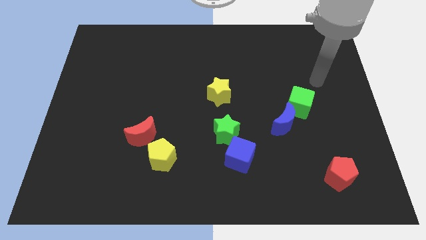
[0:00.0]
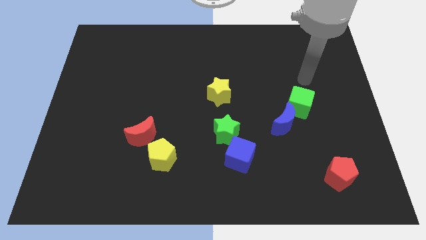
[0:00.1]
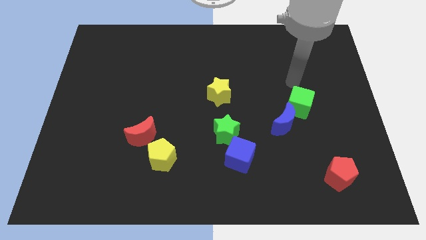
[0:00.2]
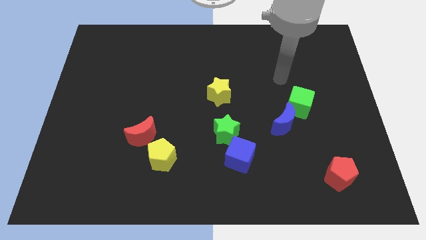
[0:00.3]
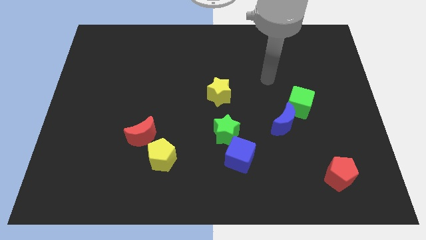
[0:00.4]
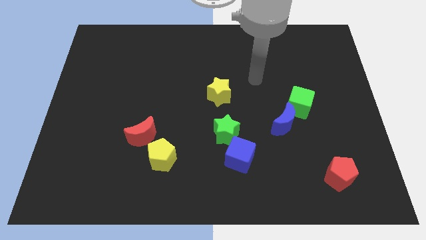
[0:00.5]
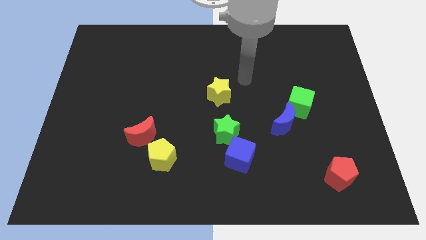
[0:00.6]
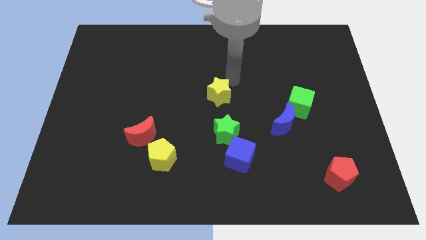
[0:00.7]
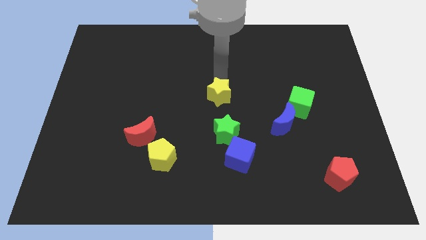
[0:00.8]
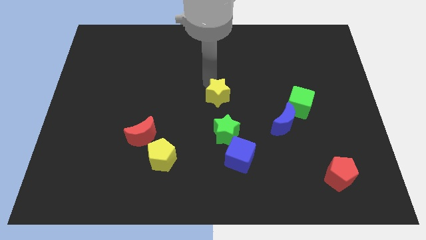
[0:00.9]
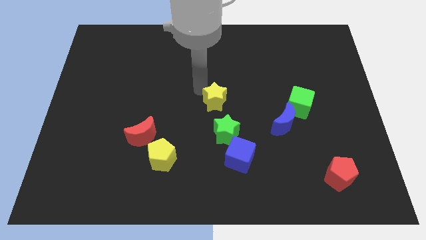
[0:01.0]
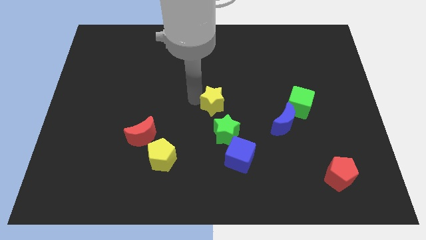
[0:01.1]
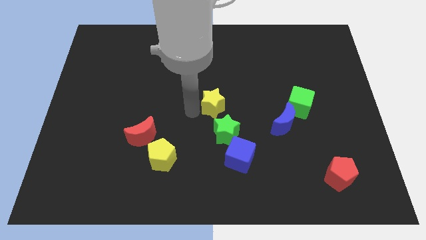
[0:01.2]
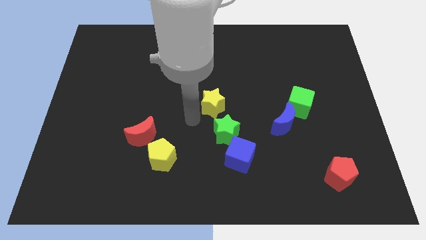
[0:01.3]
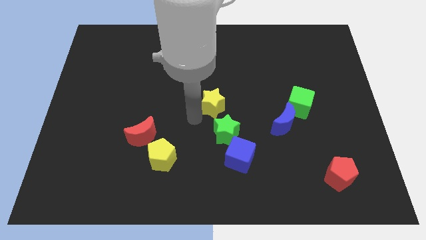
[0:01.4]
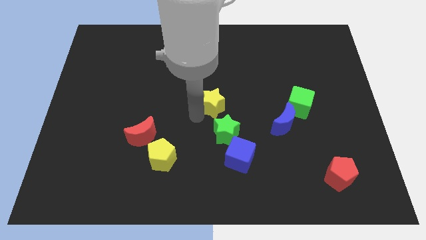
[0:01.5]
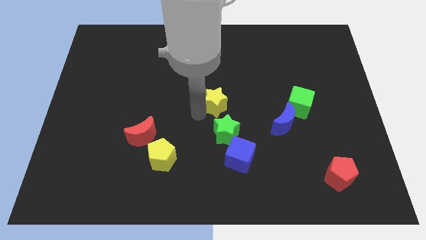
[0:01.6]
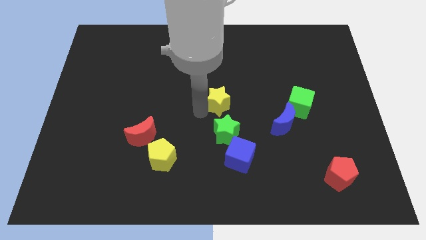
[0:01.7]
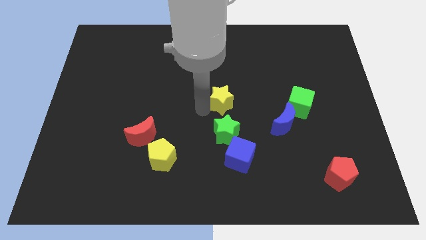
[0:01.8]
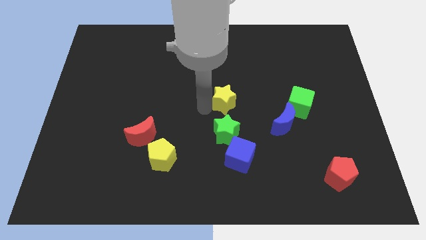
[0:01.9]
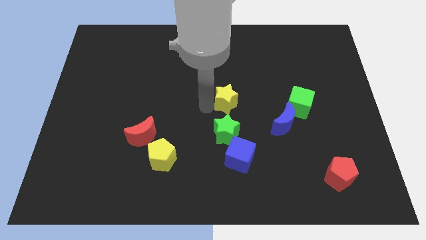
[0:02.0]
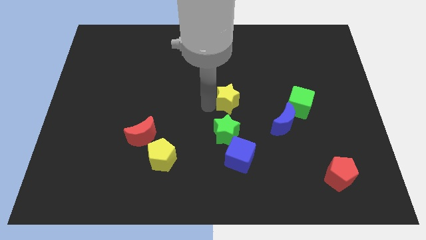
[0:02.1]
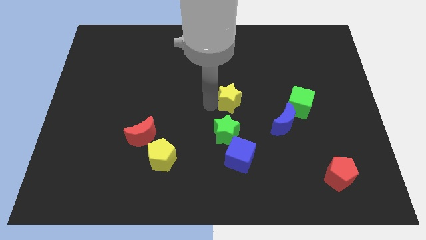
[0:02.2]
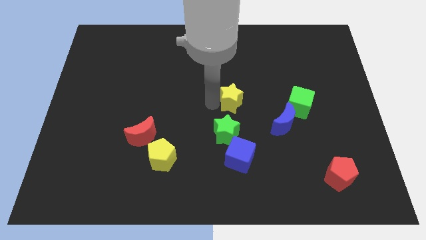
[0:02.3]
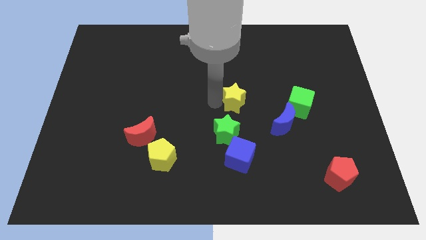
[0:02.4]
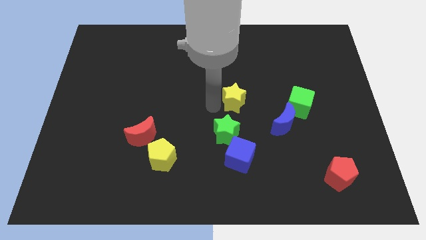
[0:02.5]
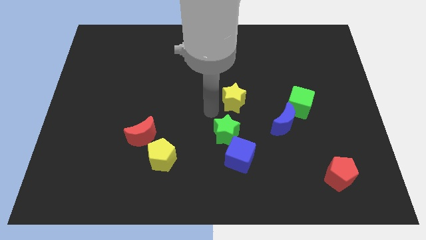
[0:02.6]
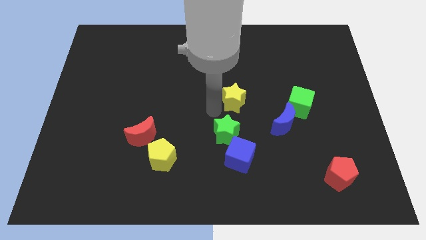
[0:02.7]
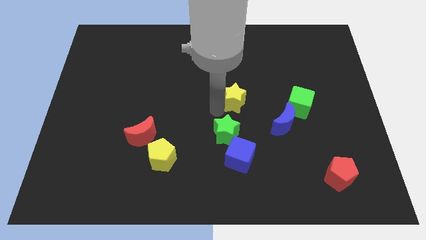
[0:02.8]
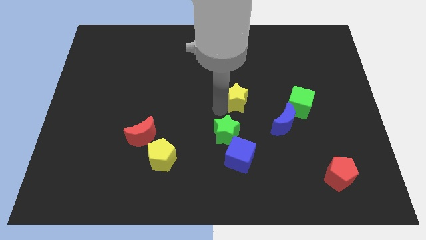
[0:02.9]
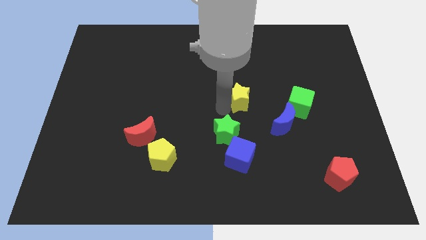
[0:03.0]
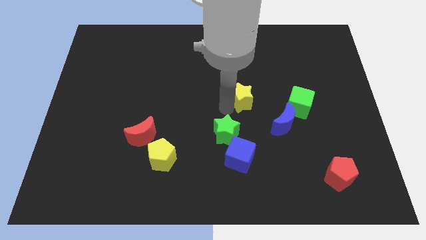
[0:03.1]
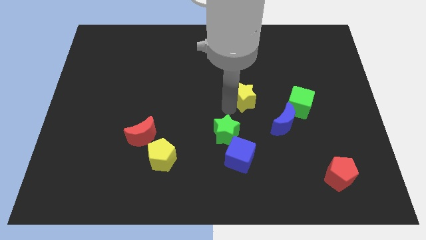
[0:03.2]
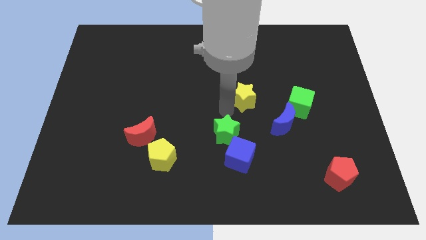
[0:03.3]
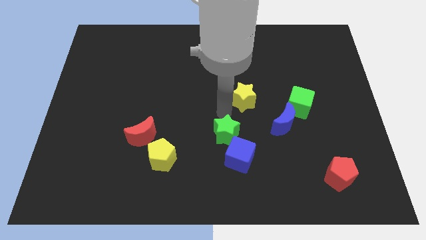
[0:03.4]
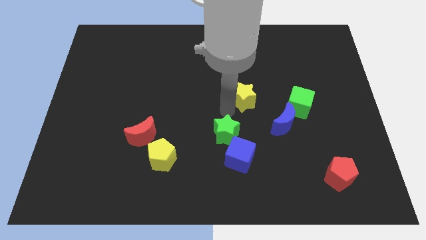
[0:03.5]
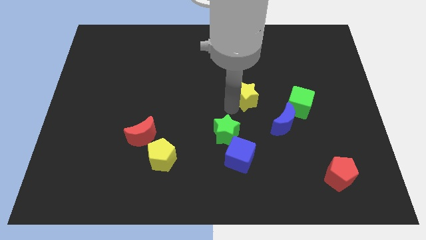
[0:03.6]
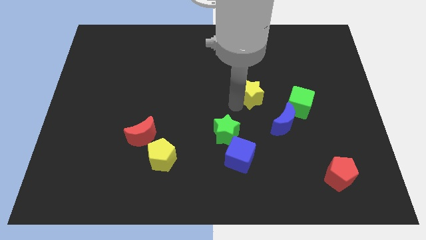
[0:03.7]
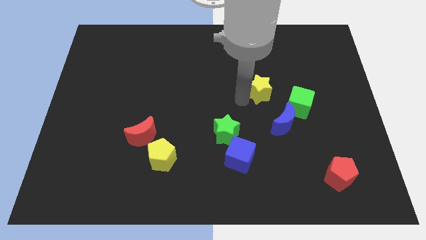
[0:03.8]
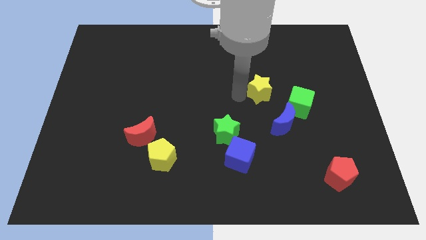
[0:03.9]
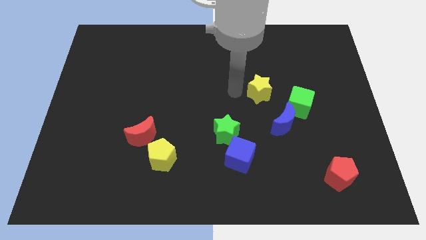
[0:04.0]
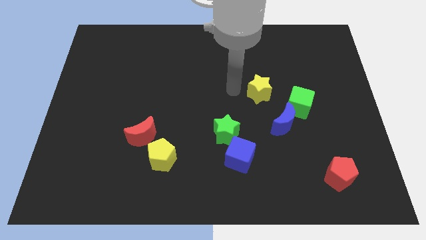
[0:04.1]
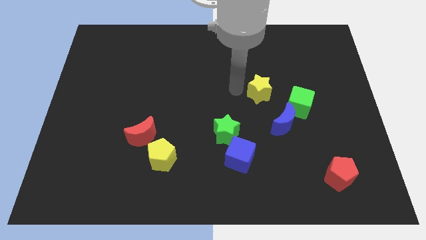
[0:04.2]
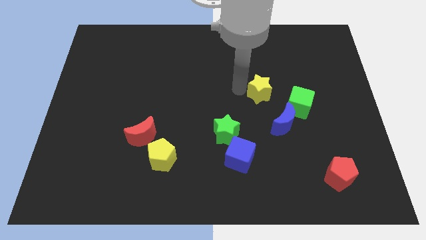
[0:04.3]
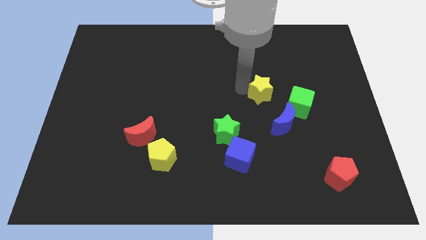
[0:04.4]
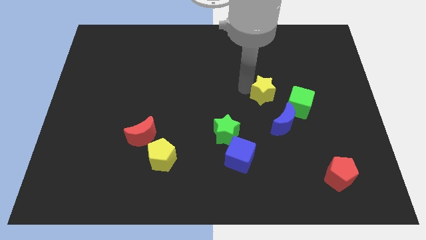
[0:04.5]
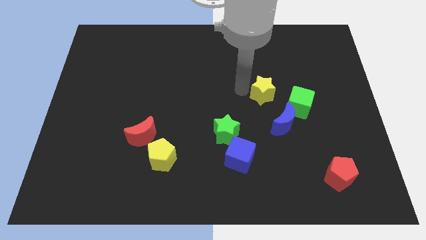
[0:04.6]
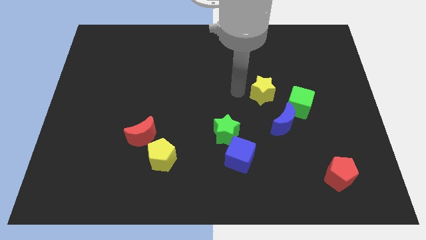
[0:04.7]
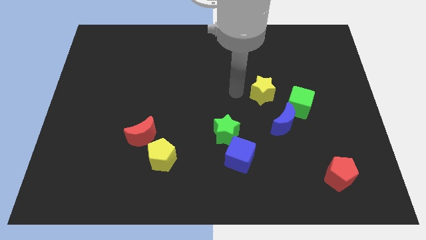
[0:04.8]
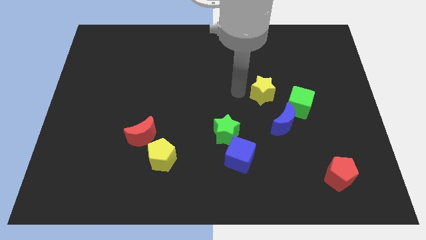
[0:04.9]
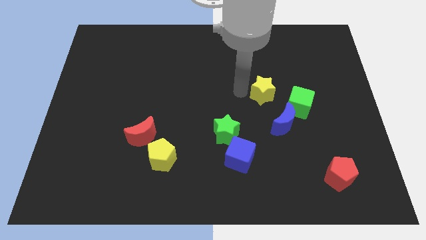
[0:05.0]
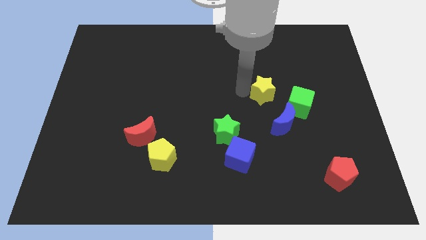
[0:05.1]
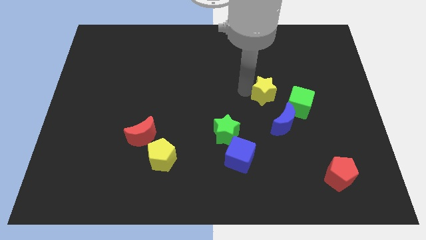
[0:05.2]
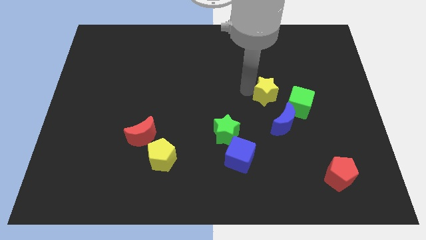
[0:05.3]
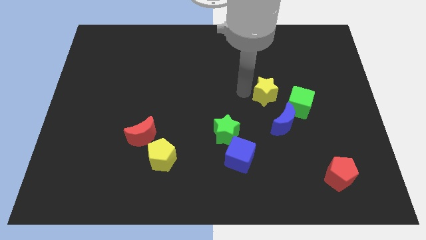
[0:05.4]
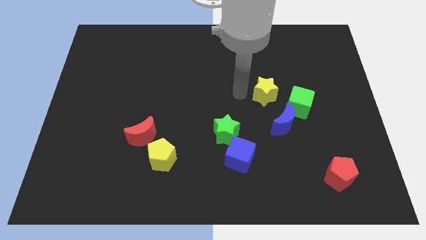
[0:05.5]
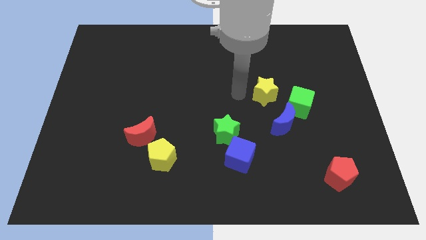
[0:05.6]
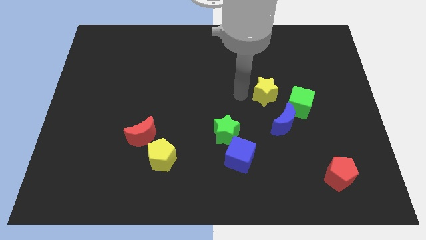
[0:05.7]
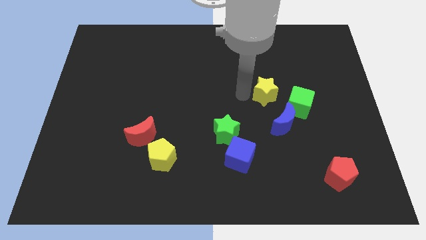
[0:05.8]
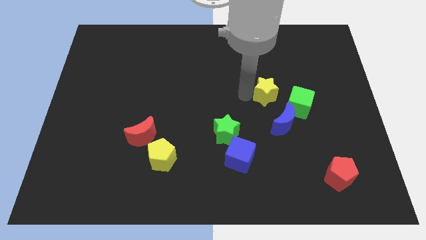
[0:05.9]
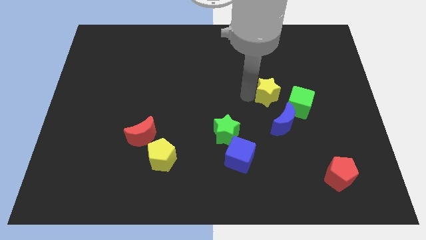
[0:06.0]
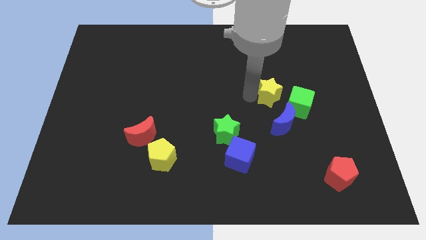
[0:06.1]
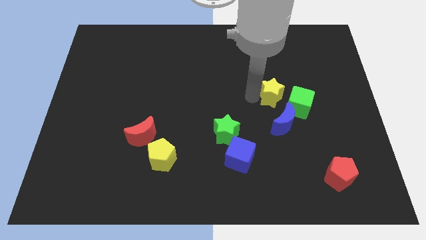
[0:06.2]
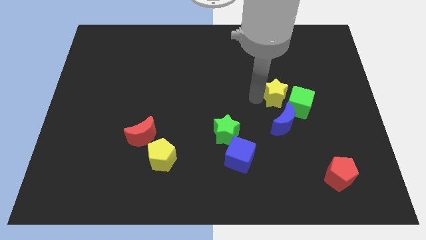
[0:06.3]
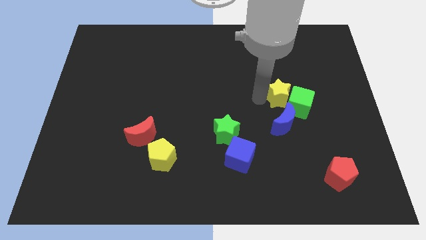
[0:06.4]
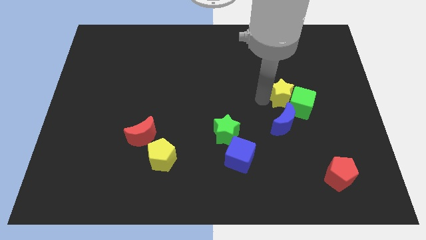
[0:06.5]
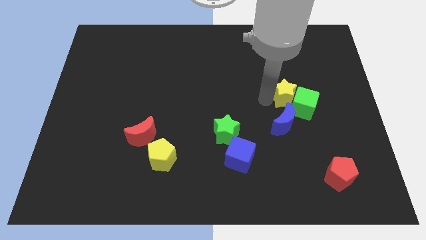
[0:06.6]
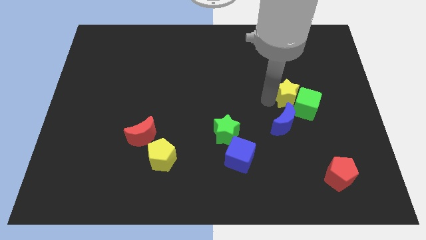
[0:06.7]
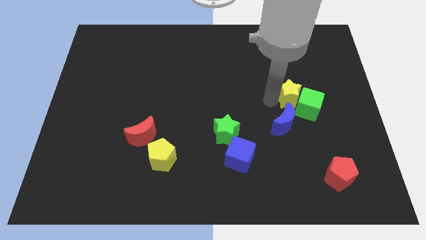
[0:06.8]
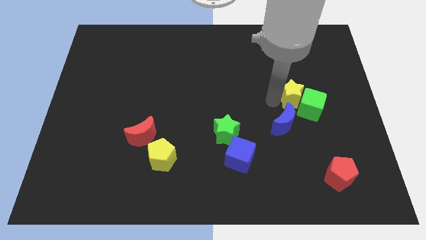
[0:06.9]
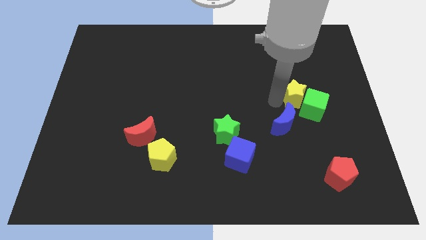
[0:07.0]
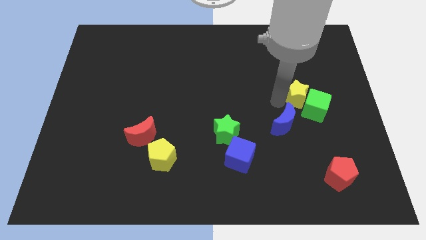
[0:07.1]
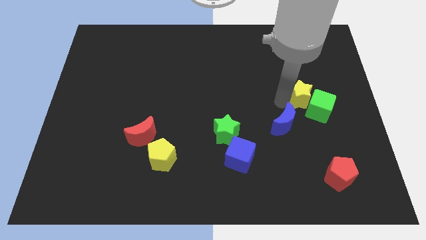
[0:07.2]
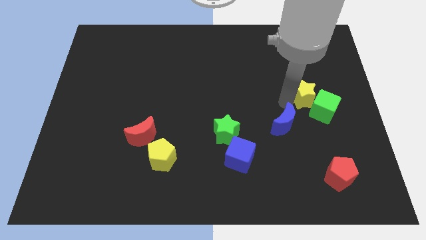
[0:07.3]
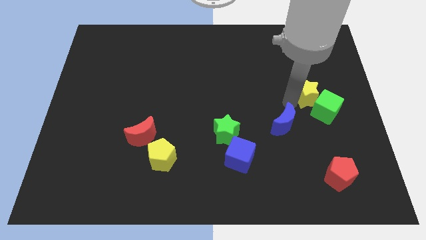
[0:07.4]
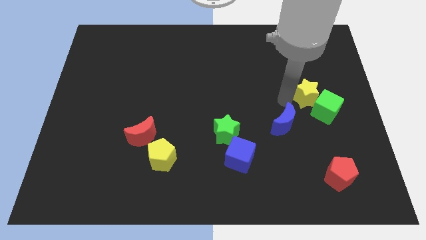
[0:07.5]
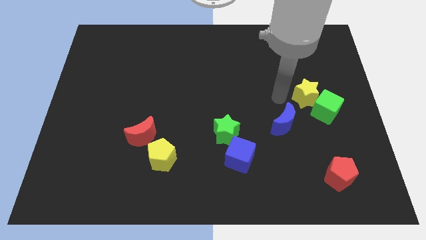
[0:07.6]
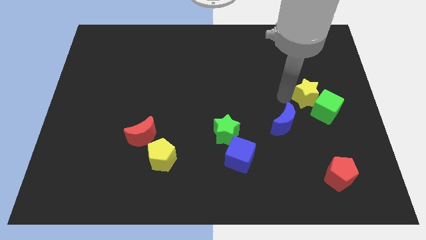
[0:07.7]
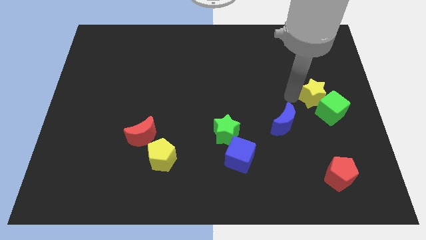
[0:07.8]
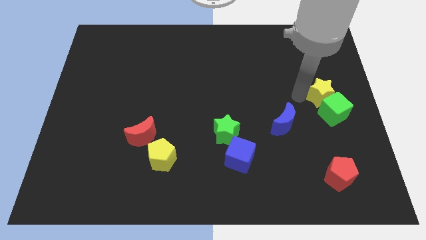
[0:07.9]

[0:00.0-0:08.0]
move the yellow star to the right side
